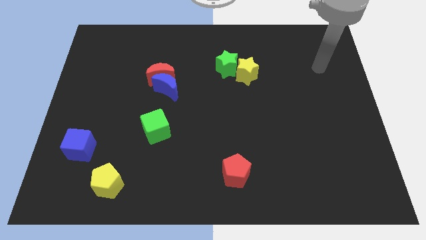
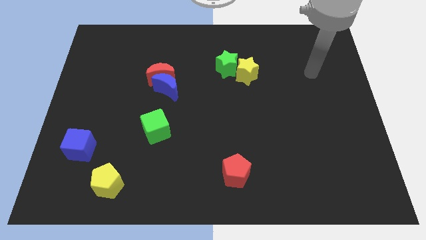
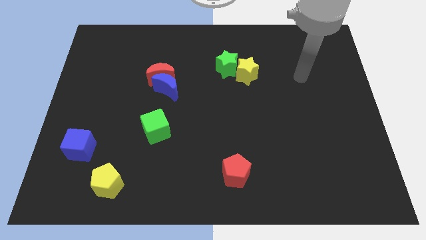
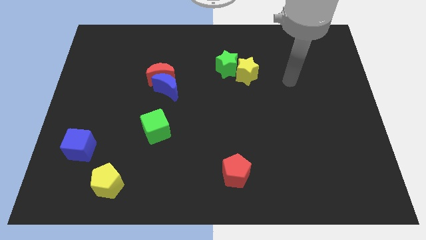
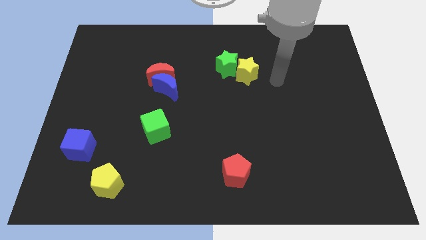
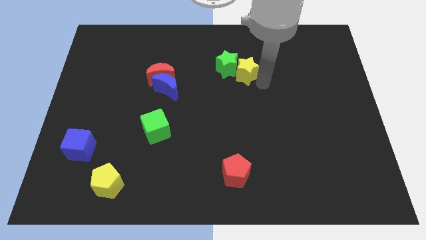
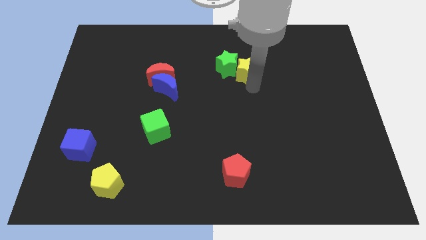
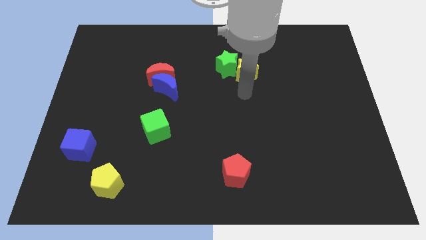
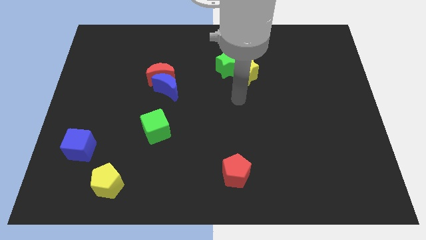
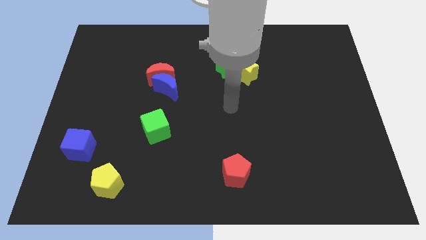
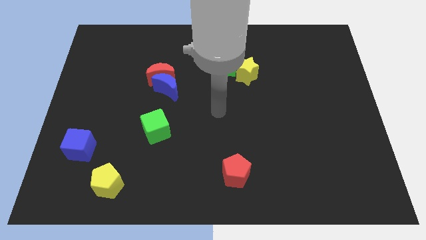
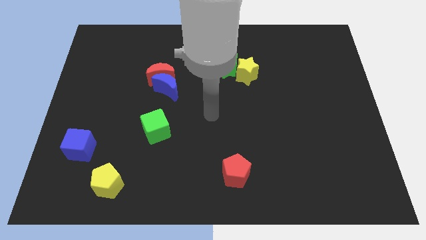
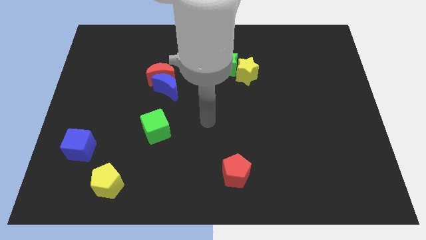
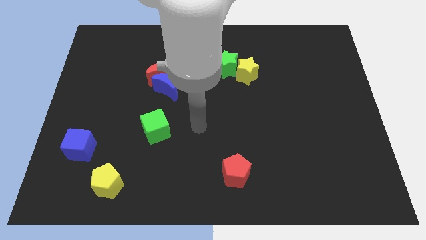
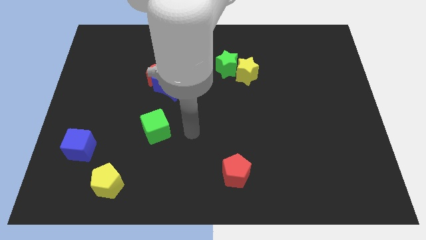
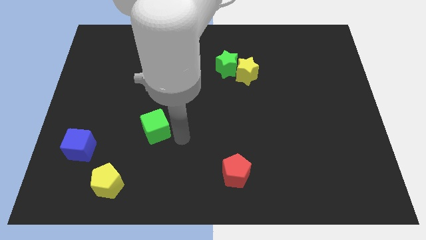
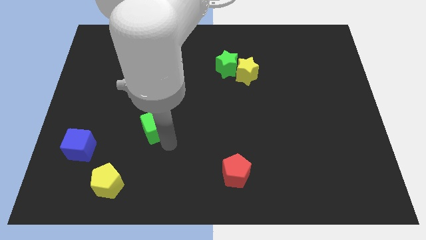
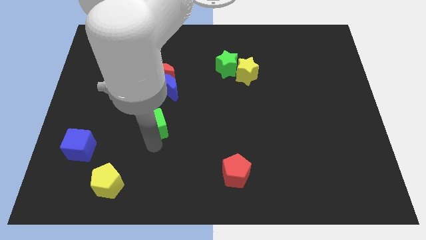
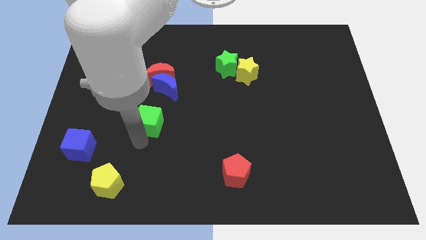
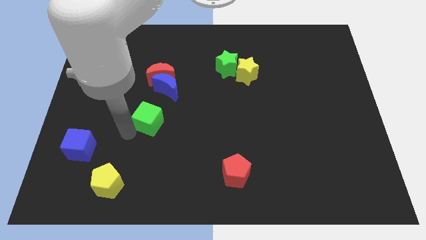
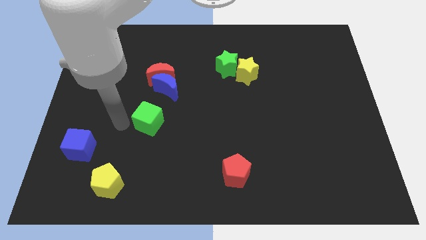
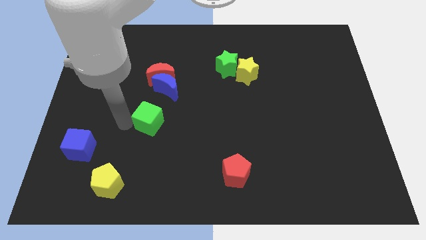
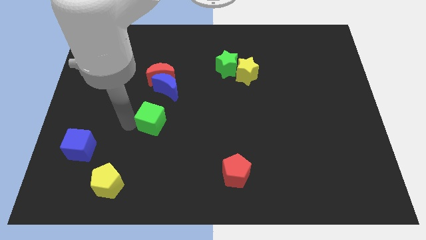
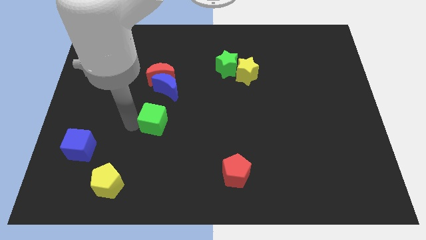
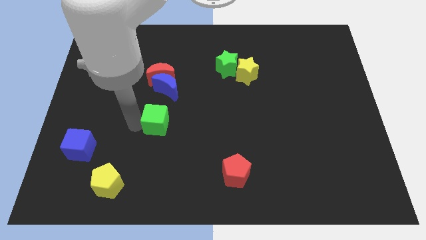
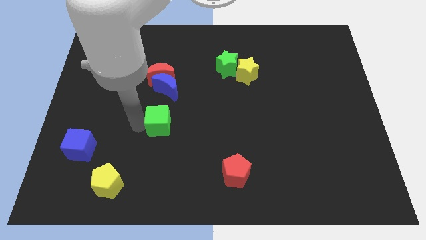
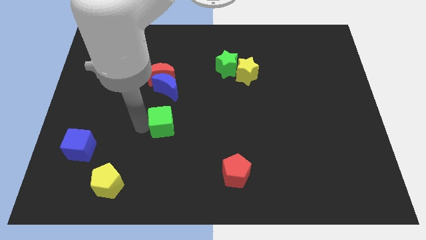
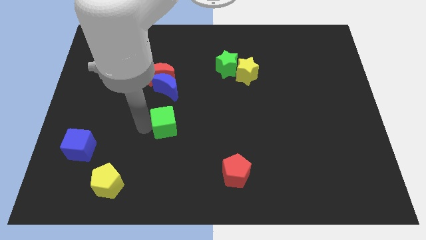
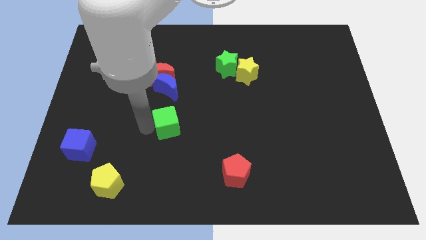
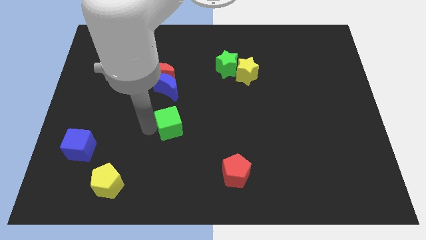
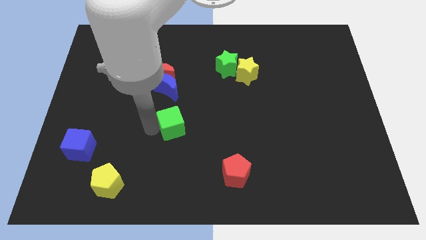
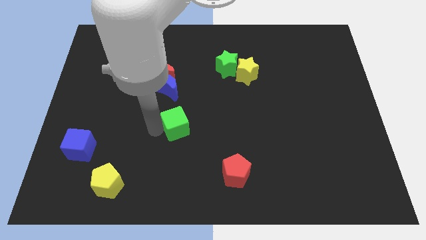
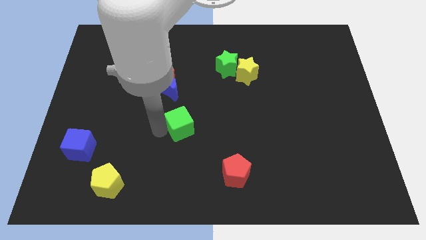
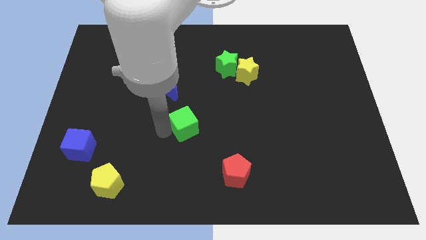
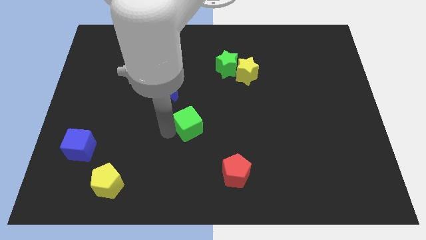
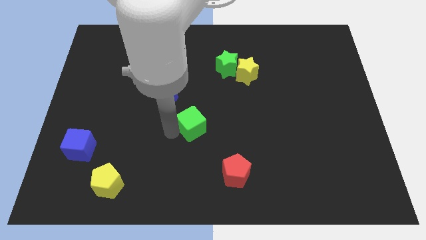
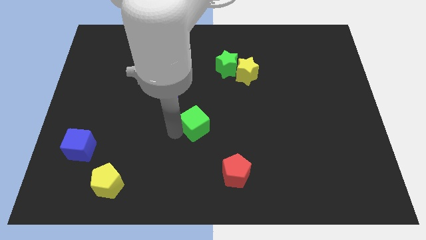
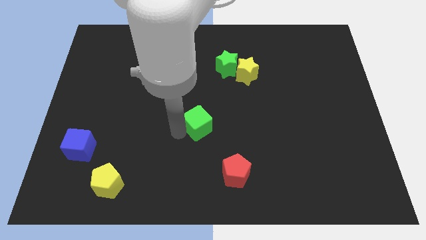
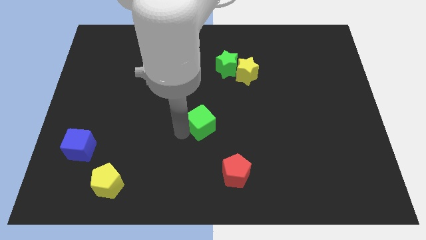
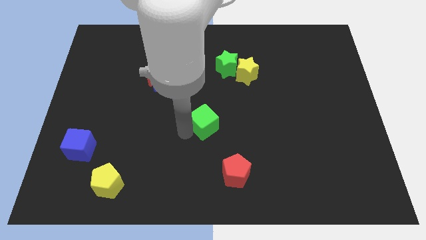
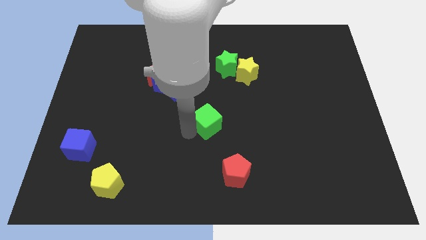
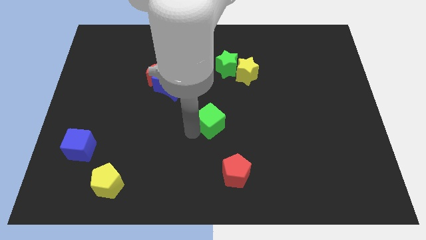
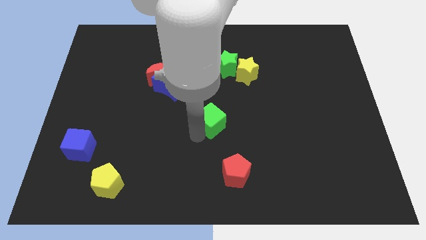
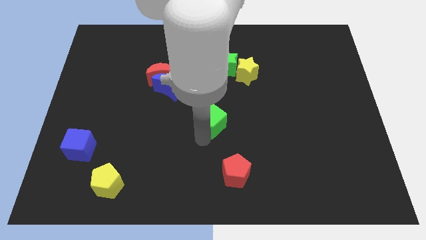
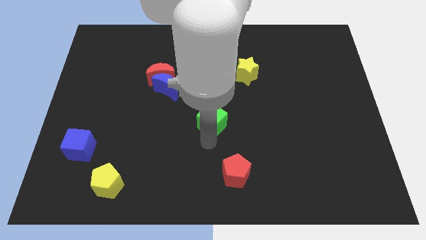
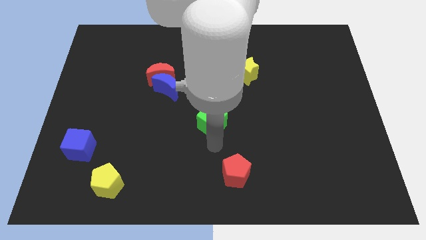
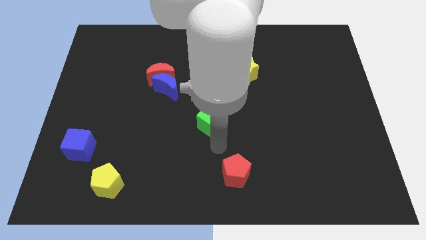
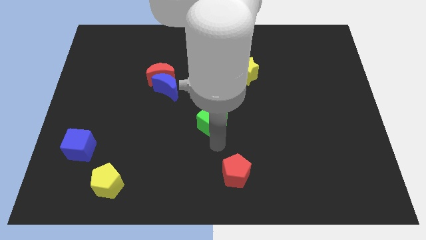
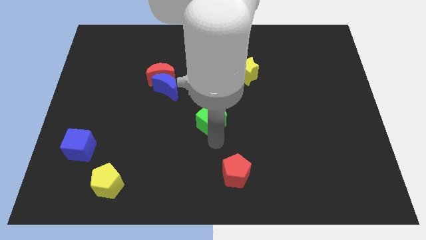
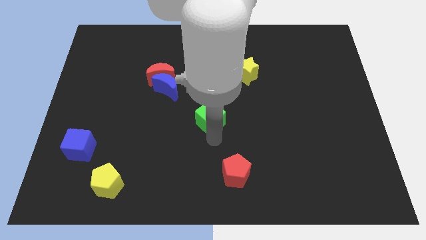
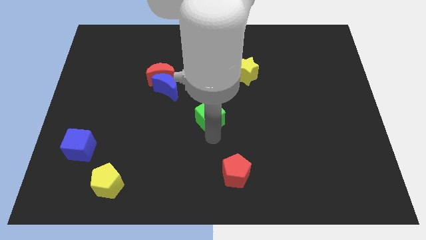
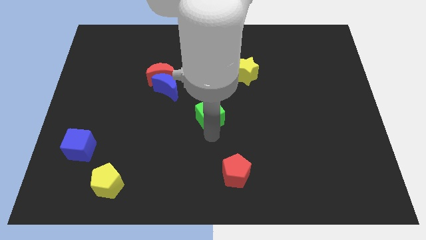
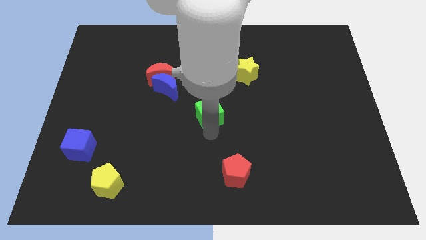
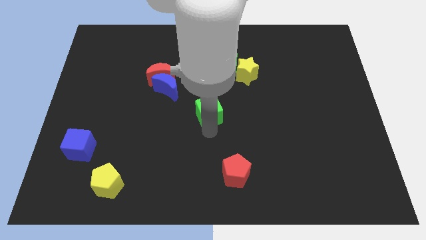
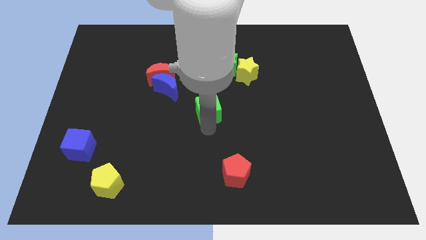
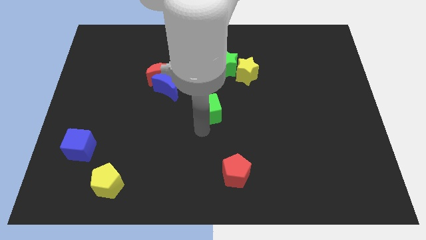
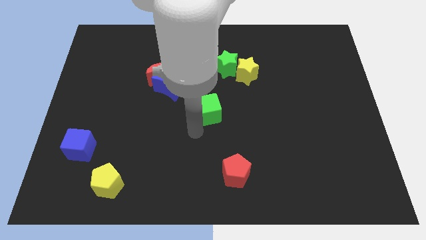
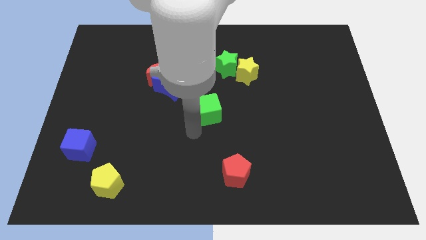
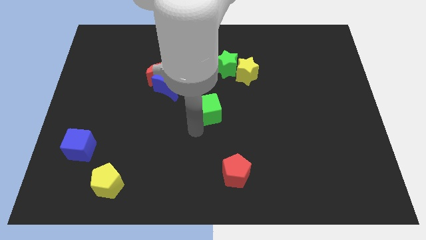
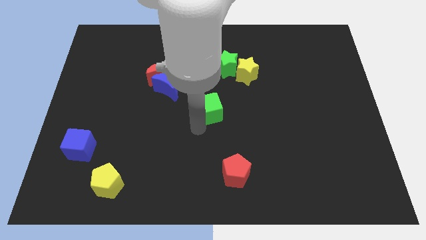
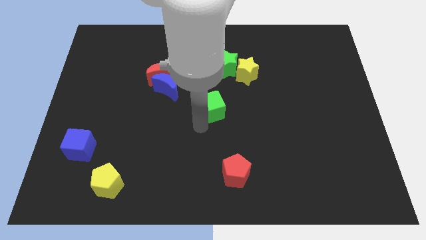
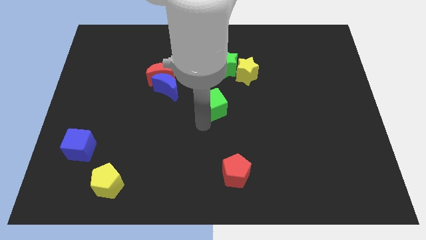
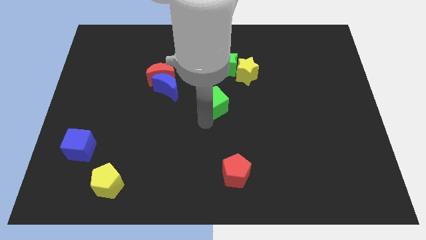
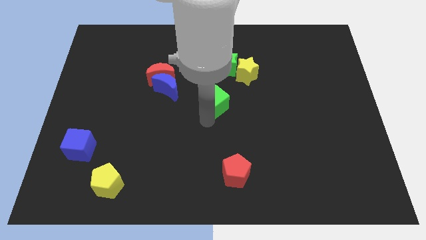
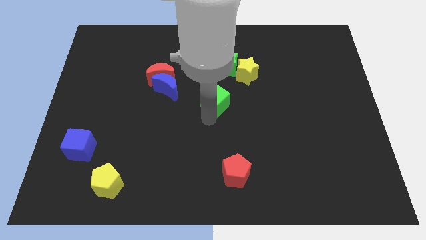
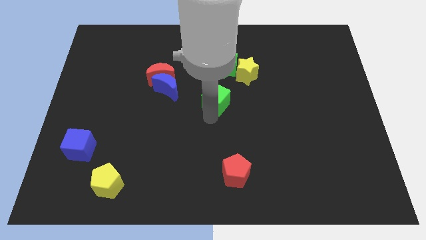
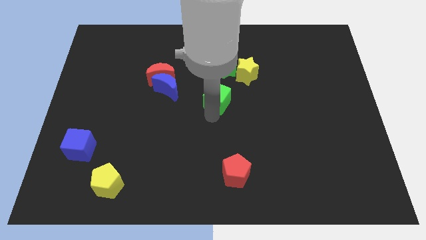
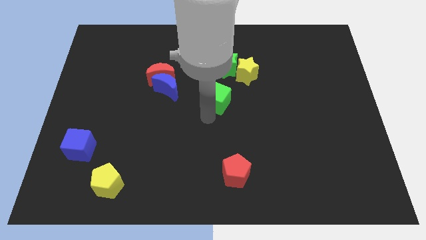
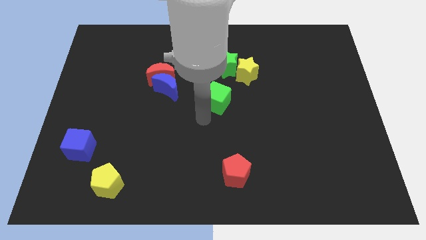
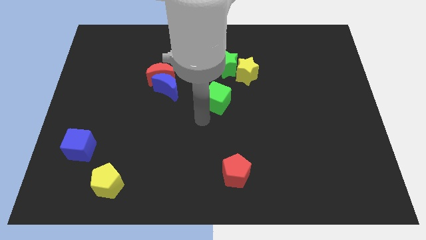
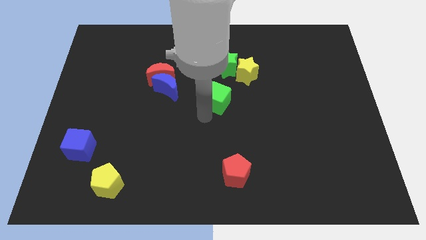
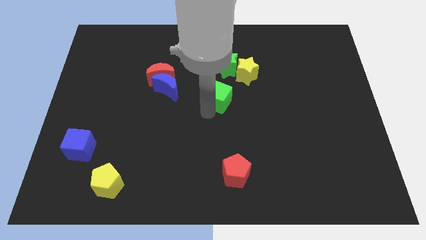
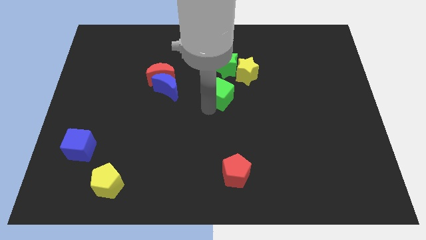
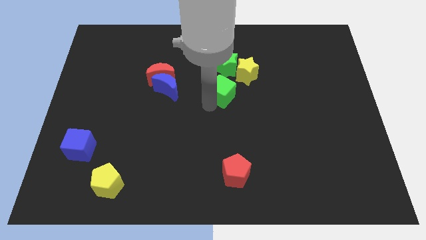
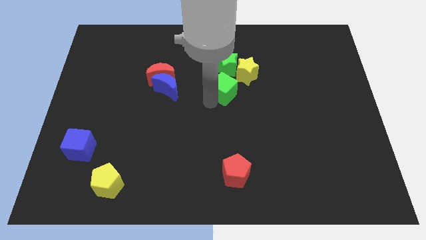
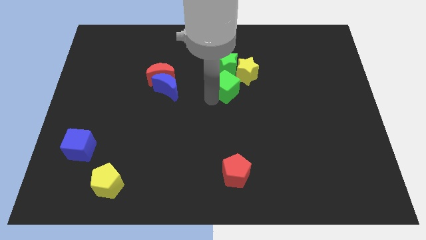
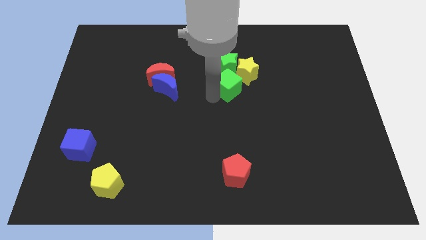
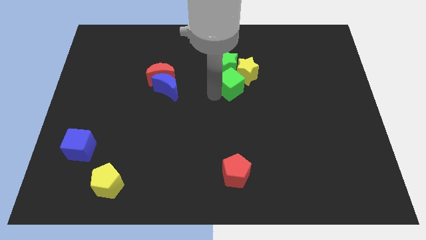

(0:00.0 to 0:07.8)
slide the green cube next to the yellow star
